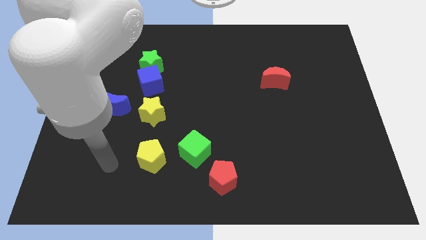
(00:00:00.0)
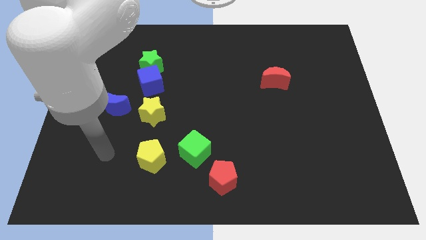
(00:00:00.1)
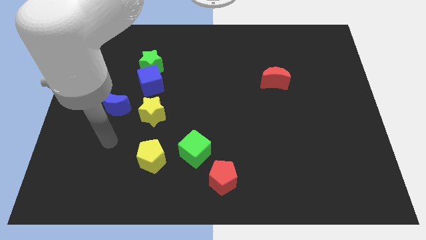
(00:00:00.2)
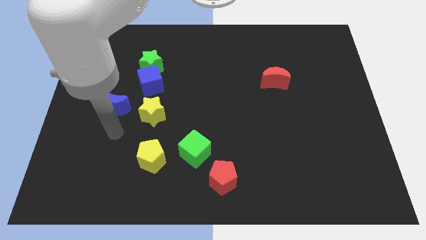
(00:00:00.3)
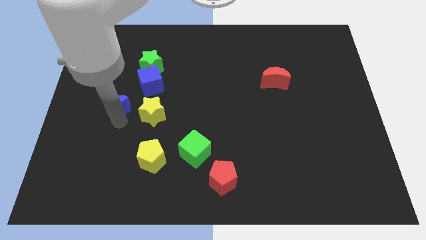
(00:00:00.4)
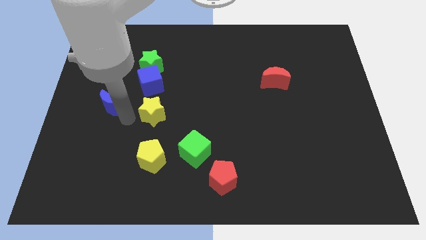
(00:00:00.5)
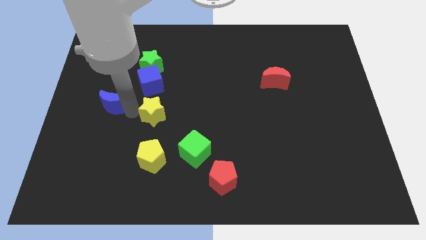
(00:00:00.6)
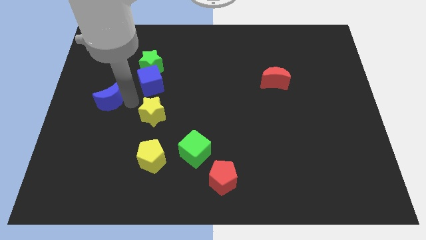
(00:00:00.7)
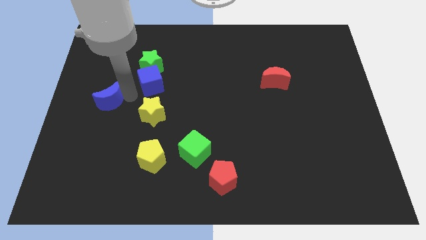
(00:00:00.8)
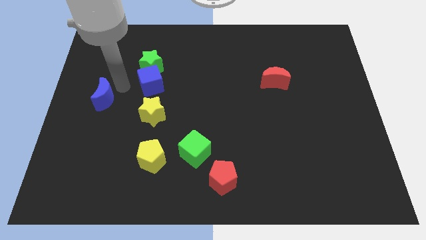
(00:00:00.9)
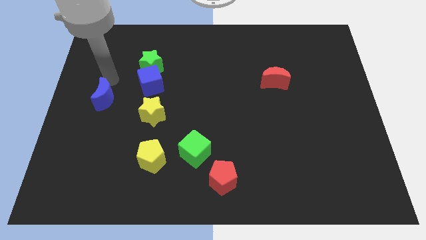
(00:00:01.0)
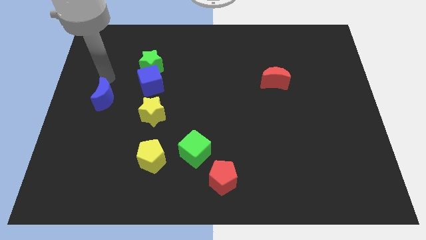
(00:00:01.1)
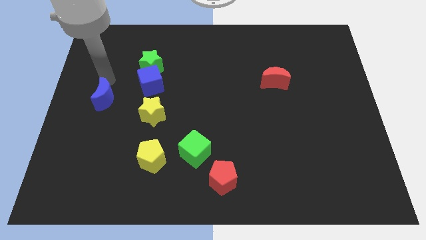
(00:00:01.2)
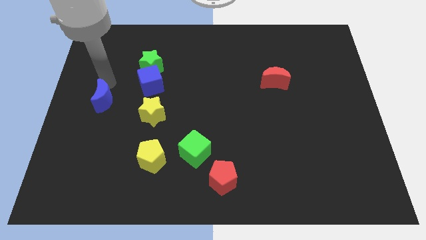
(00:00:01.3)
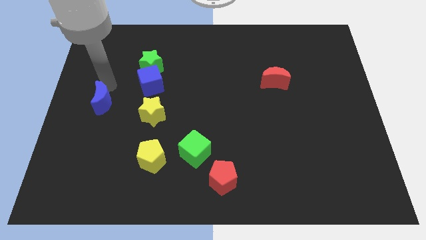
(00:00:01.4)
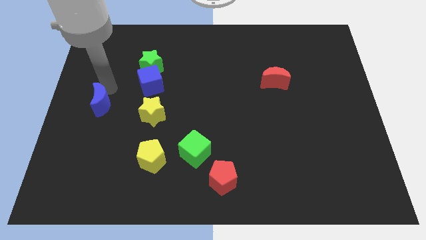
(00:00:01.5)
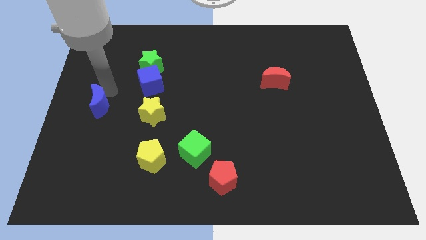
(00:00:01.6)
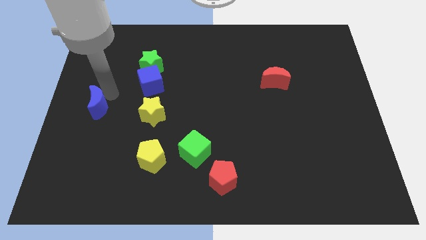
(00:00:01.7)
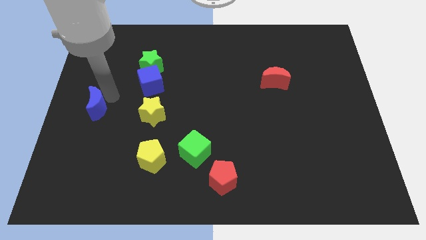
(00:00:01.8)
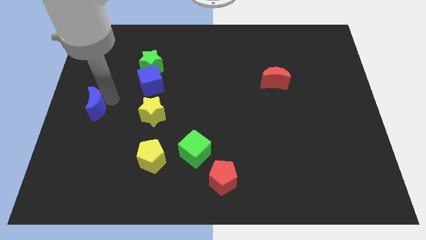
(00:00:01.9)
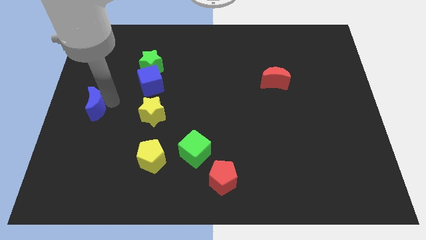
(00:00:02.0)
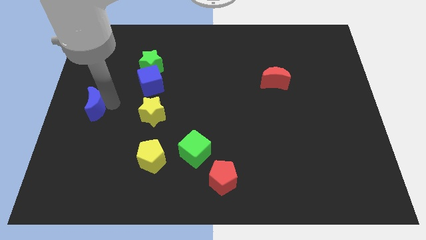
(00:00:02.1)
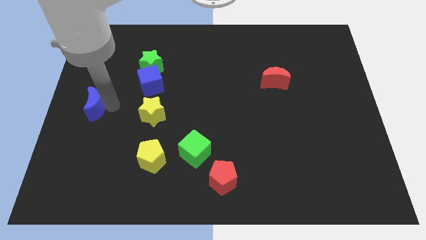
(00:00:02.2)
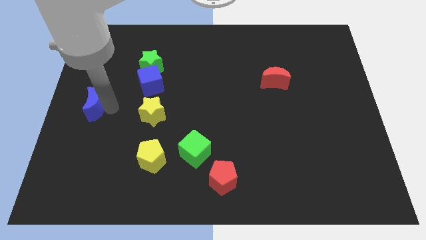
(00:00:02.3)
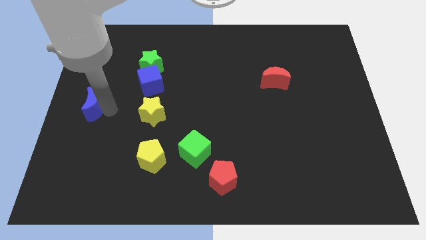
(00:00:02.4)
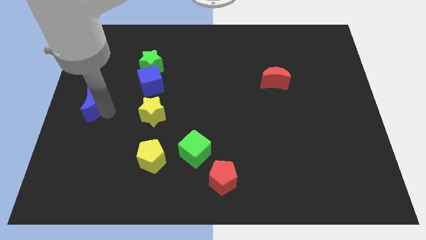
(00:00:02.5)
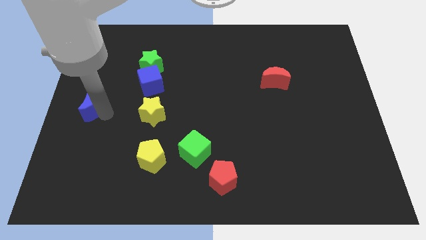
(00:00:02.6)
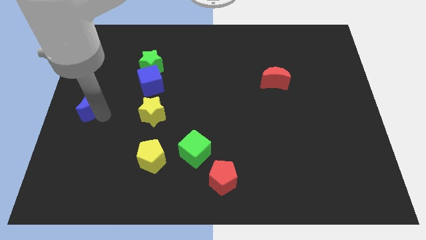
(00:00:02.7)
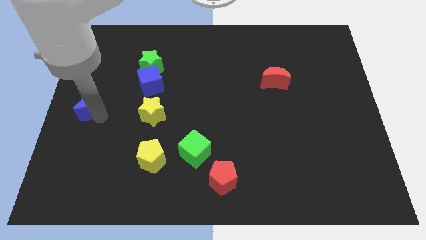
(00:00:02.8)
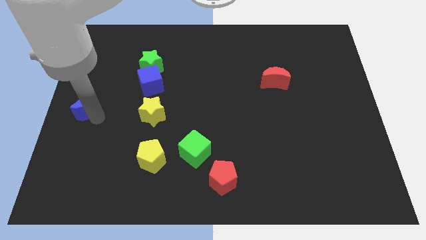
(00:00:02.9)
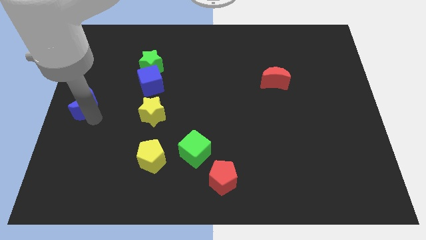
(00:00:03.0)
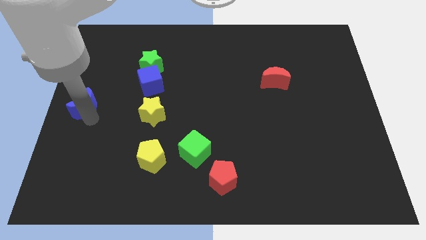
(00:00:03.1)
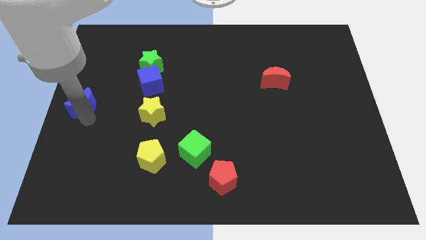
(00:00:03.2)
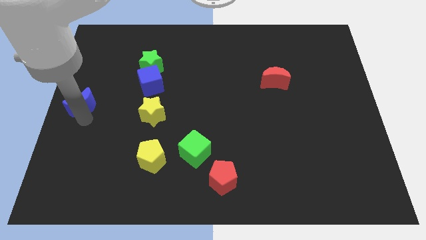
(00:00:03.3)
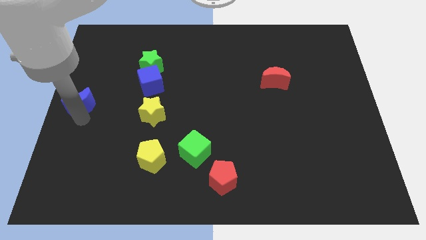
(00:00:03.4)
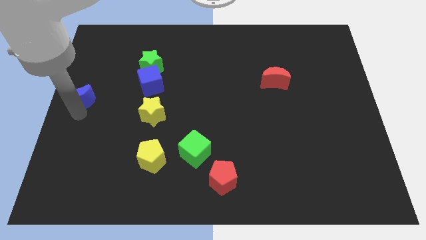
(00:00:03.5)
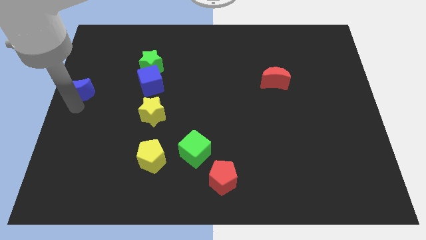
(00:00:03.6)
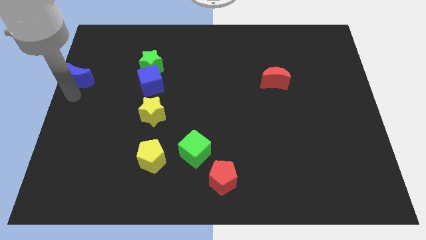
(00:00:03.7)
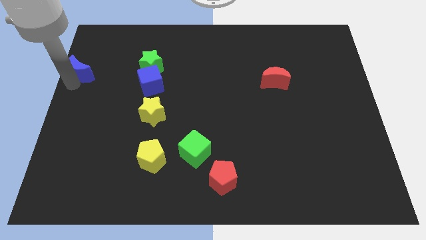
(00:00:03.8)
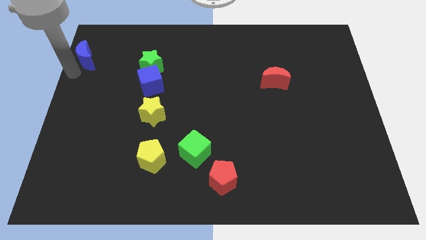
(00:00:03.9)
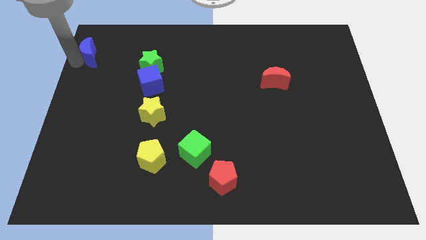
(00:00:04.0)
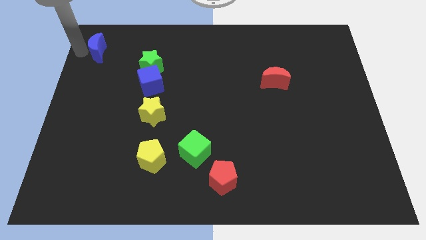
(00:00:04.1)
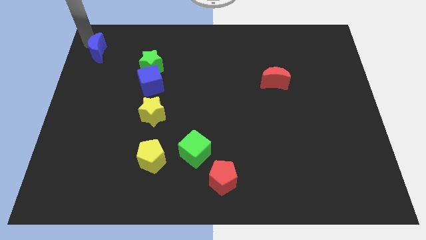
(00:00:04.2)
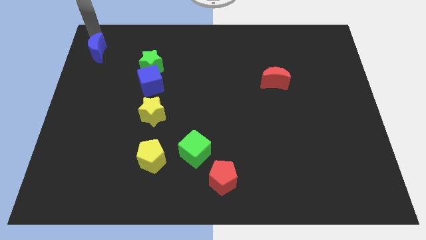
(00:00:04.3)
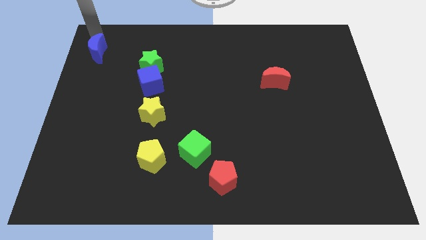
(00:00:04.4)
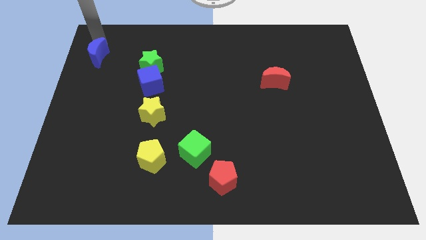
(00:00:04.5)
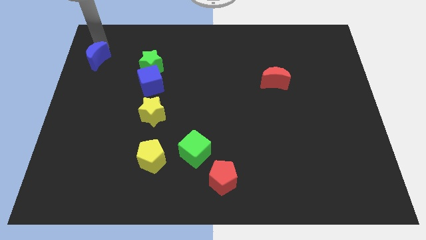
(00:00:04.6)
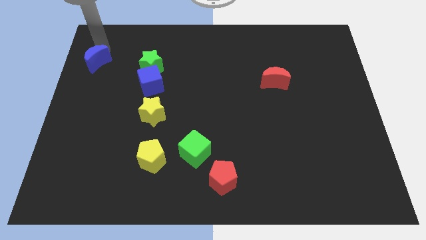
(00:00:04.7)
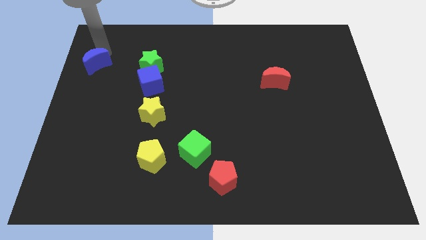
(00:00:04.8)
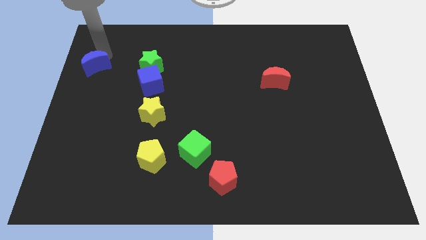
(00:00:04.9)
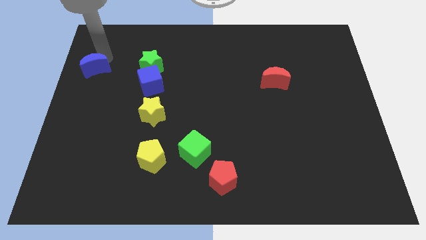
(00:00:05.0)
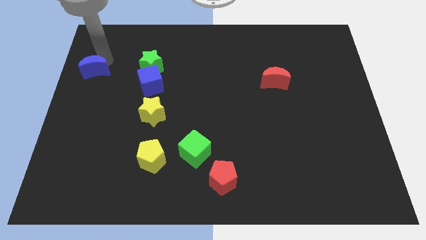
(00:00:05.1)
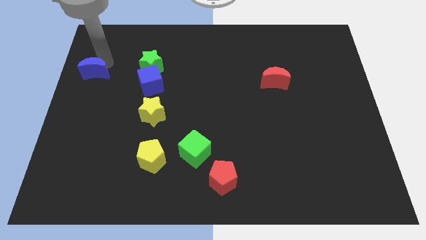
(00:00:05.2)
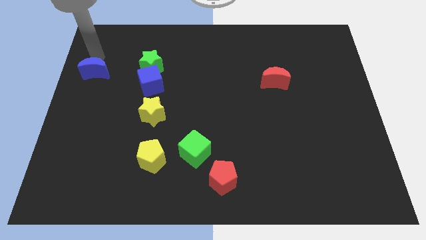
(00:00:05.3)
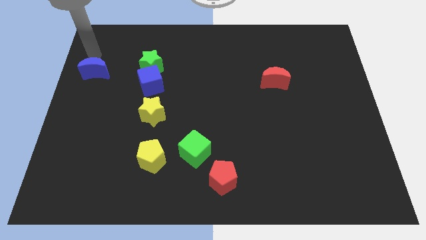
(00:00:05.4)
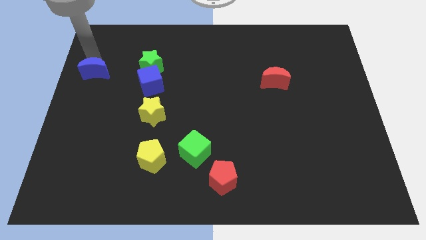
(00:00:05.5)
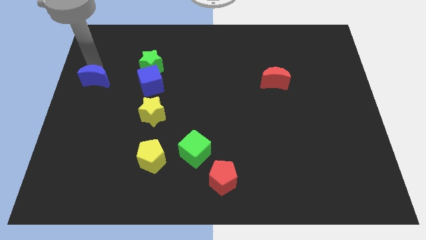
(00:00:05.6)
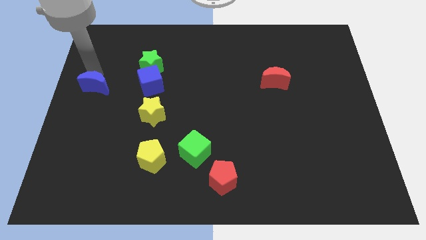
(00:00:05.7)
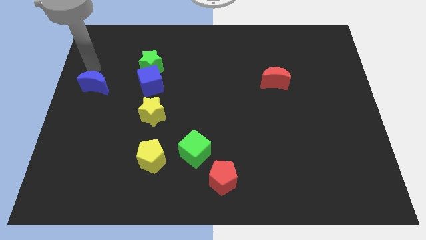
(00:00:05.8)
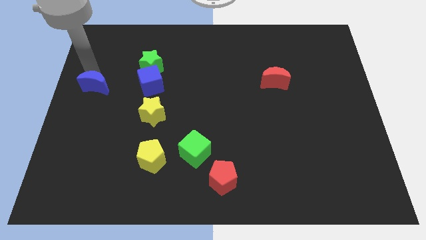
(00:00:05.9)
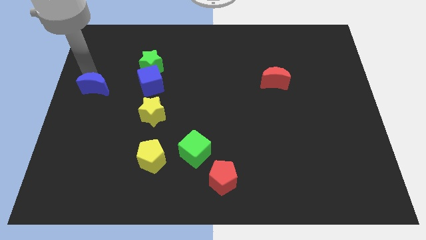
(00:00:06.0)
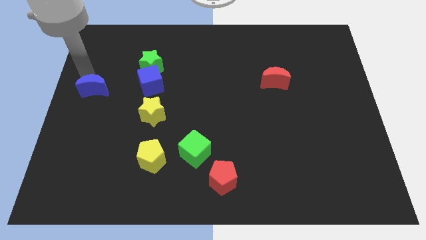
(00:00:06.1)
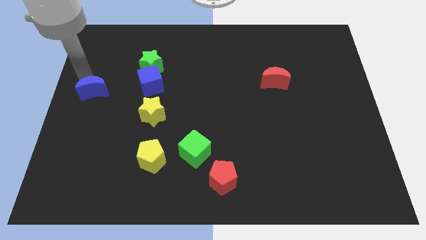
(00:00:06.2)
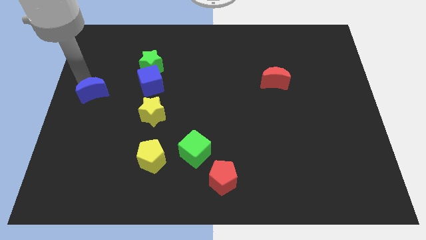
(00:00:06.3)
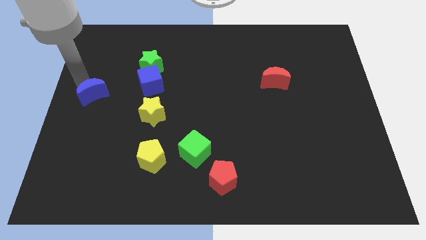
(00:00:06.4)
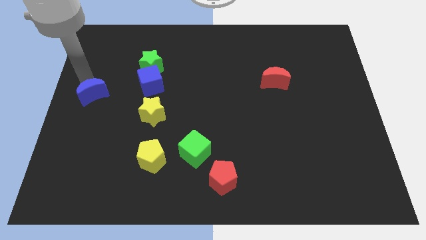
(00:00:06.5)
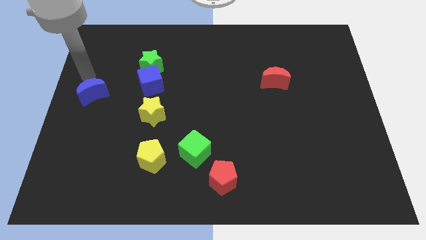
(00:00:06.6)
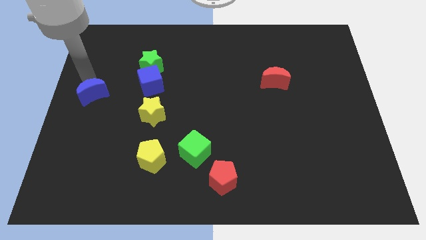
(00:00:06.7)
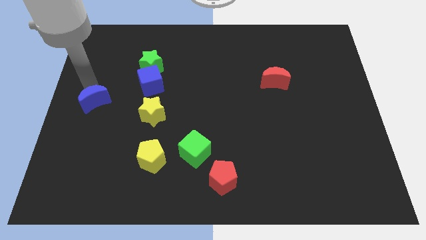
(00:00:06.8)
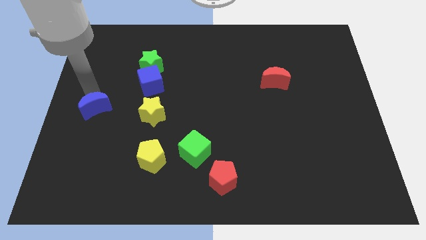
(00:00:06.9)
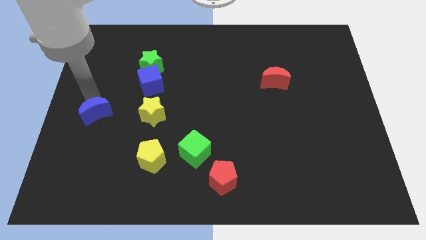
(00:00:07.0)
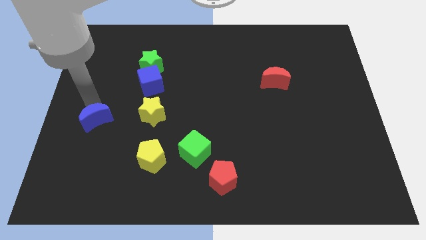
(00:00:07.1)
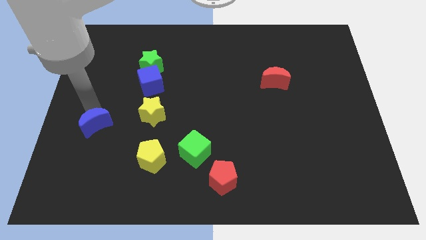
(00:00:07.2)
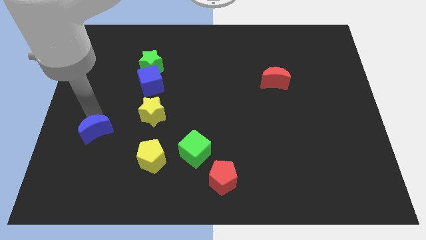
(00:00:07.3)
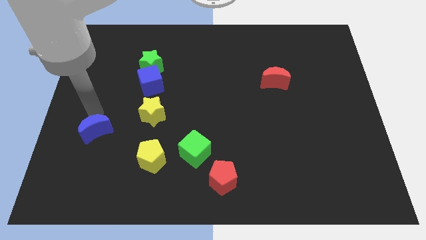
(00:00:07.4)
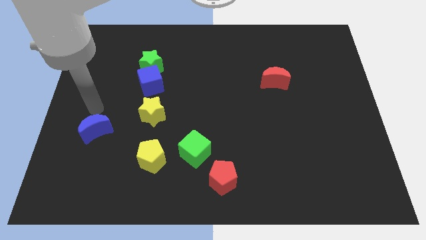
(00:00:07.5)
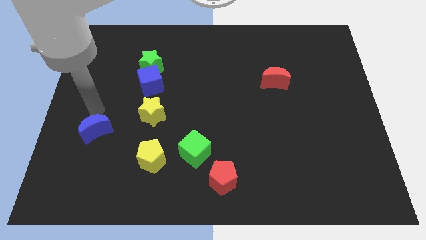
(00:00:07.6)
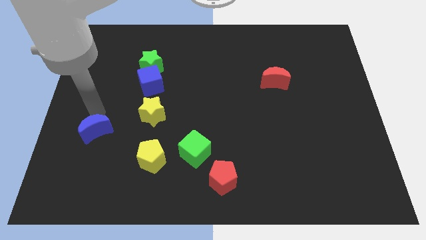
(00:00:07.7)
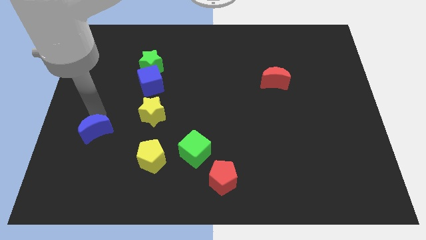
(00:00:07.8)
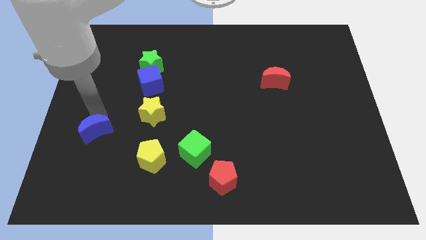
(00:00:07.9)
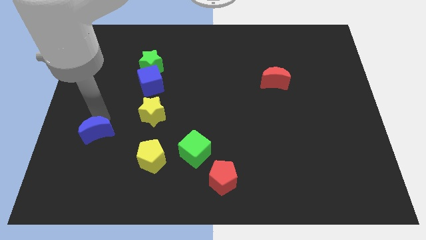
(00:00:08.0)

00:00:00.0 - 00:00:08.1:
slightly move the blue moon downwards
